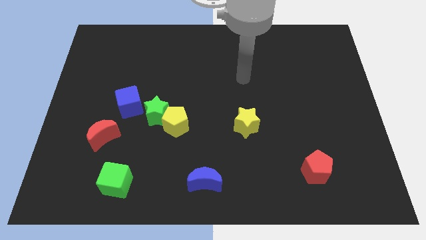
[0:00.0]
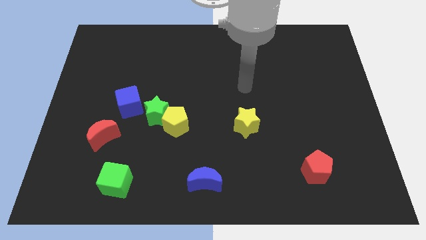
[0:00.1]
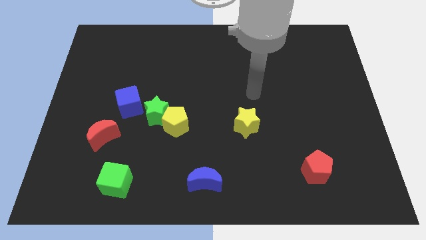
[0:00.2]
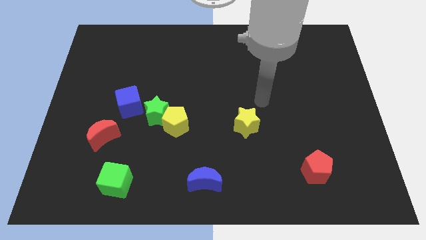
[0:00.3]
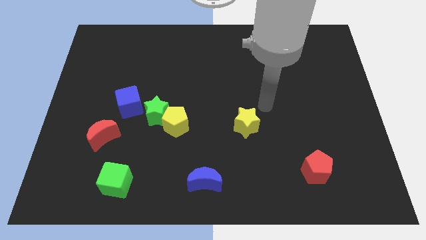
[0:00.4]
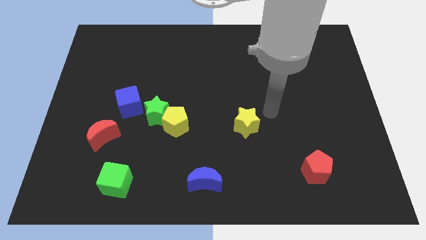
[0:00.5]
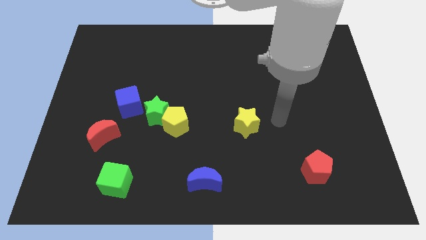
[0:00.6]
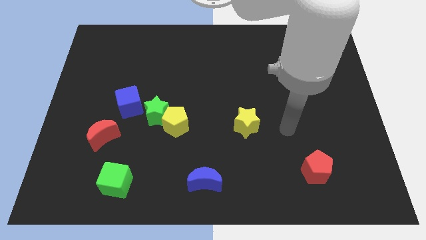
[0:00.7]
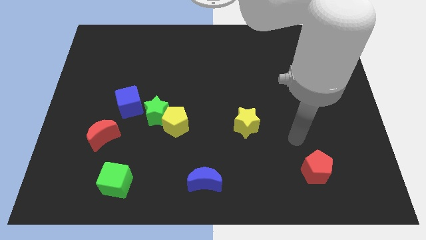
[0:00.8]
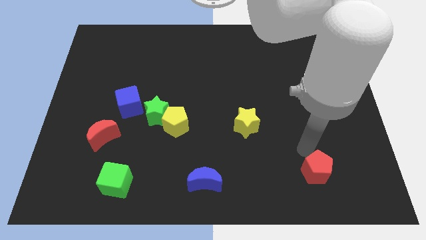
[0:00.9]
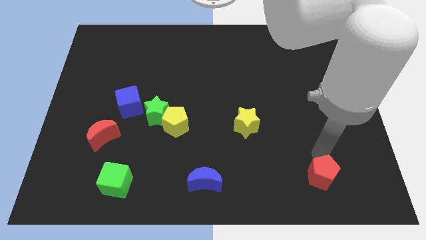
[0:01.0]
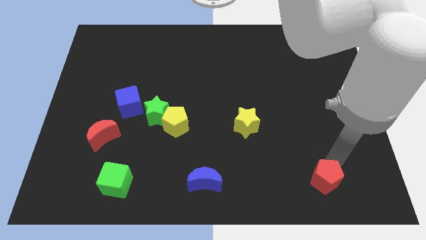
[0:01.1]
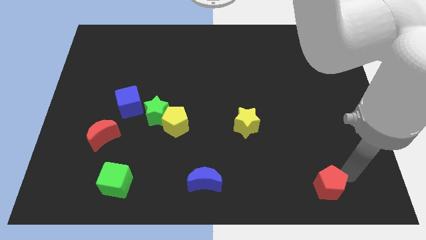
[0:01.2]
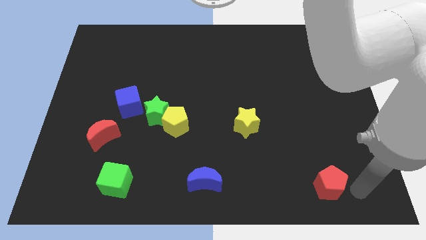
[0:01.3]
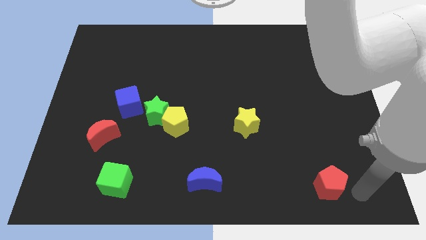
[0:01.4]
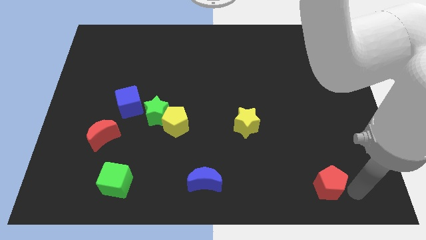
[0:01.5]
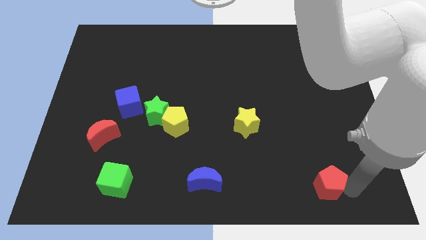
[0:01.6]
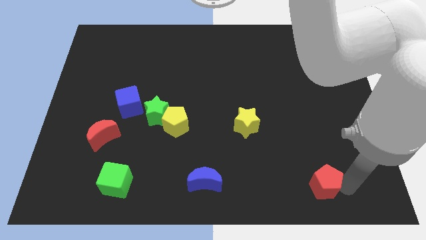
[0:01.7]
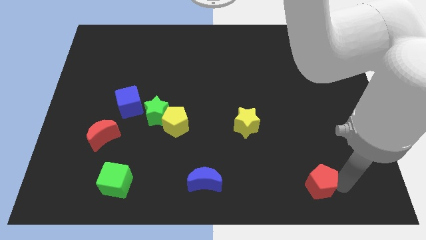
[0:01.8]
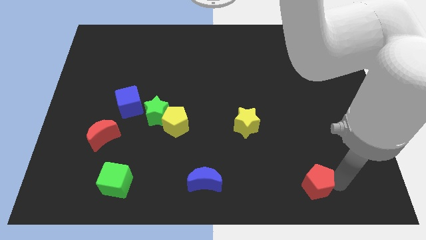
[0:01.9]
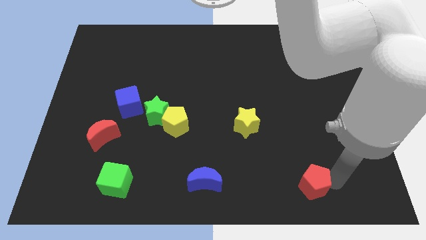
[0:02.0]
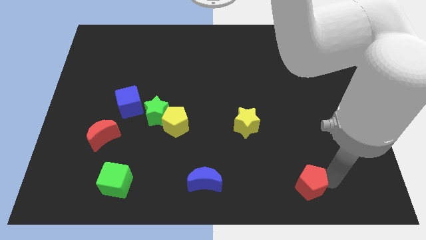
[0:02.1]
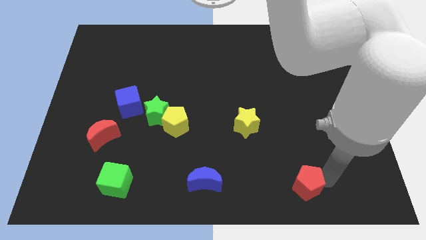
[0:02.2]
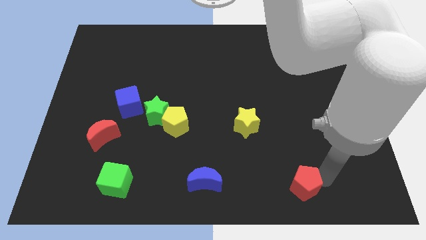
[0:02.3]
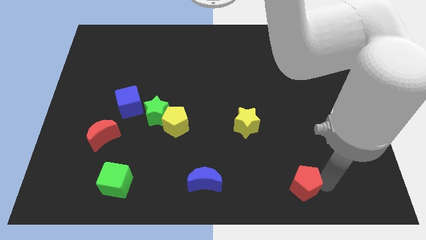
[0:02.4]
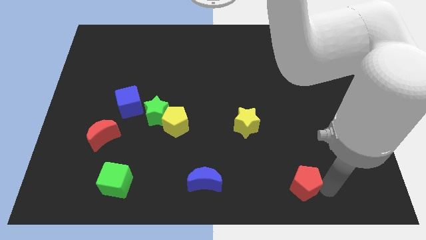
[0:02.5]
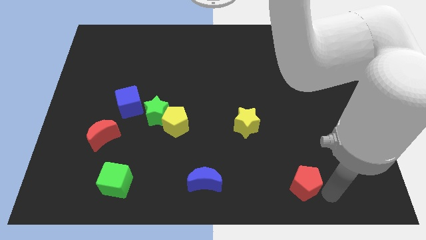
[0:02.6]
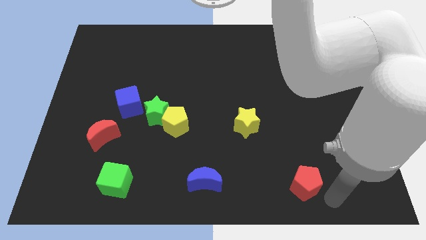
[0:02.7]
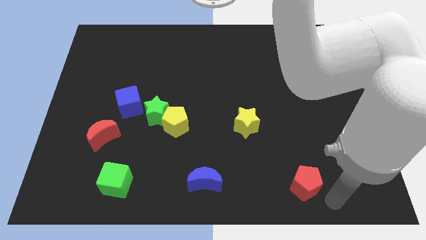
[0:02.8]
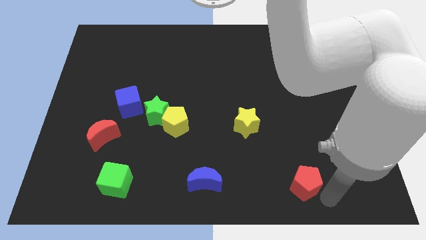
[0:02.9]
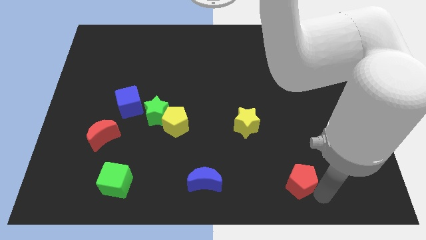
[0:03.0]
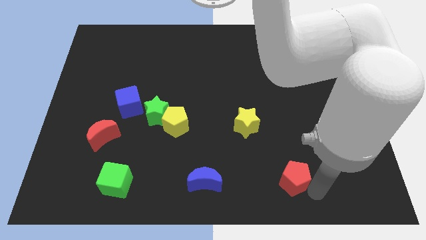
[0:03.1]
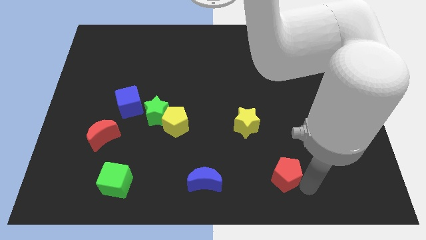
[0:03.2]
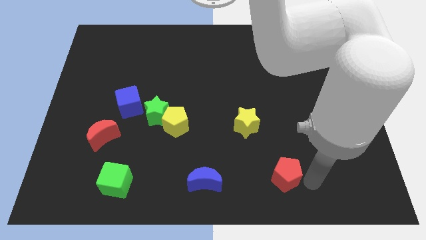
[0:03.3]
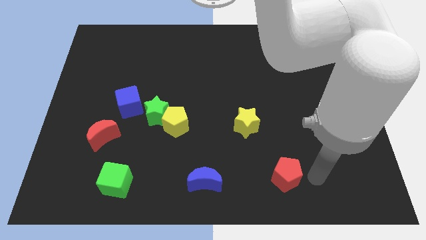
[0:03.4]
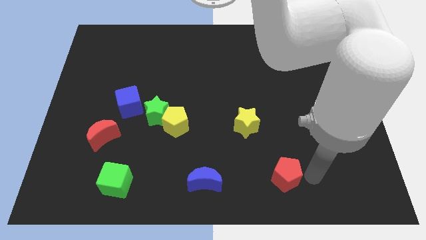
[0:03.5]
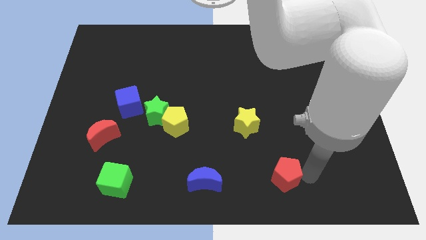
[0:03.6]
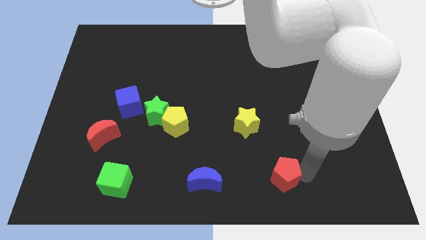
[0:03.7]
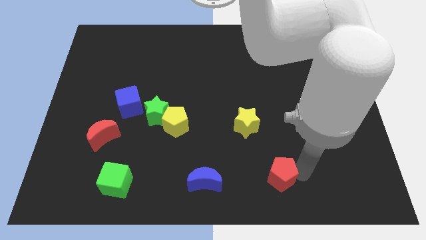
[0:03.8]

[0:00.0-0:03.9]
move the red pentagon to the left a little

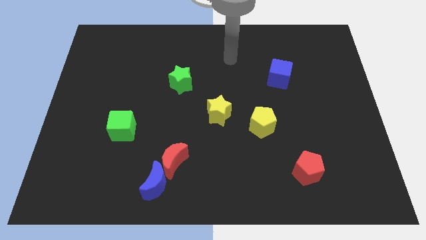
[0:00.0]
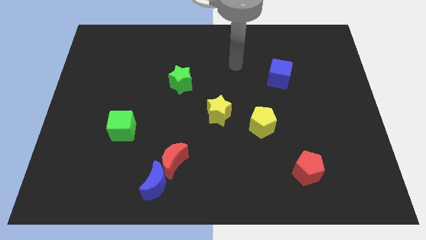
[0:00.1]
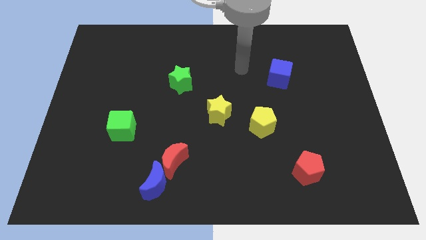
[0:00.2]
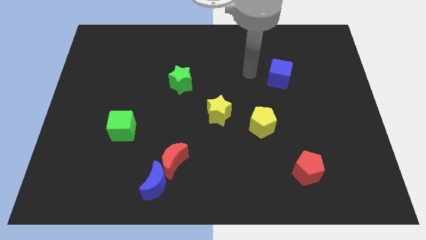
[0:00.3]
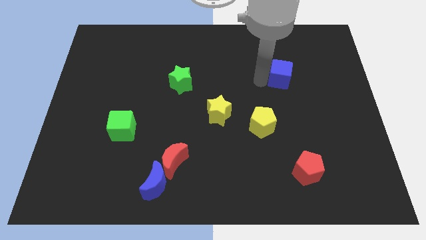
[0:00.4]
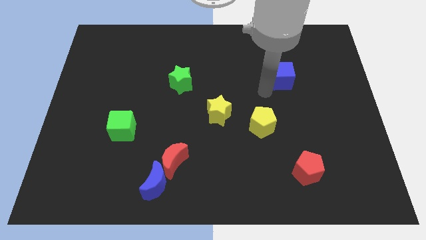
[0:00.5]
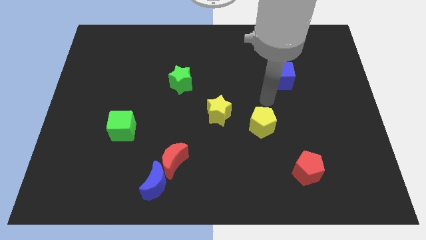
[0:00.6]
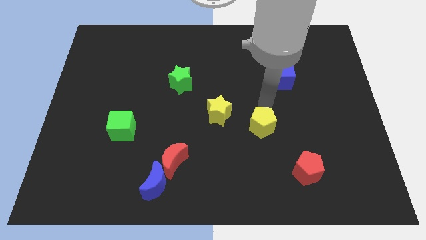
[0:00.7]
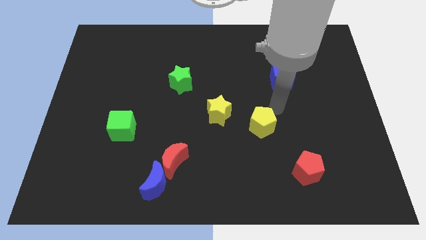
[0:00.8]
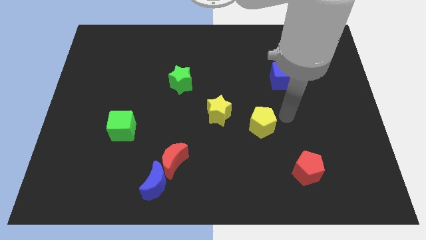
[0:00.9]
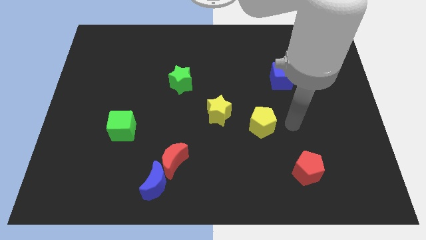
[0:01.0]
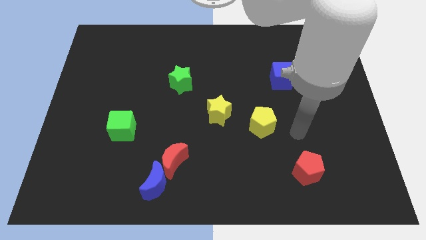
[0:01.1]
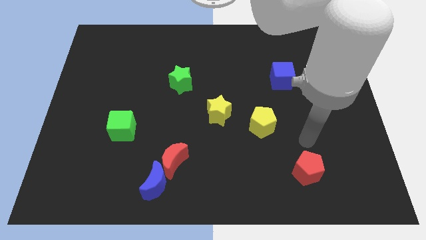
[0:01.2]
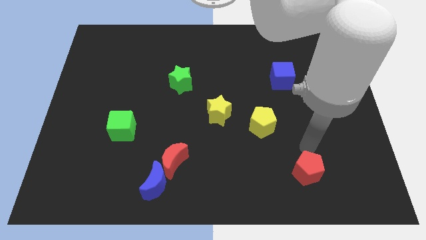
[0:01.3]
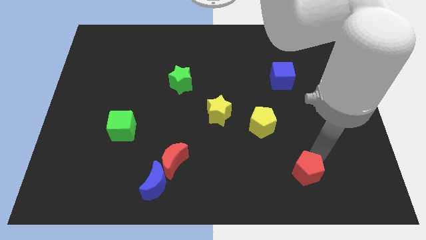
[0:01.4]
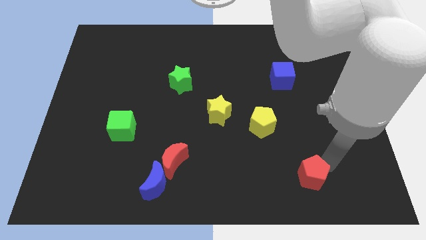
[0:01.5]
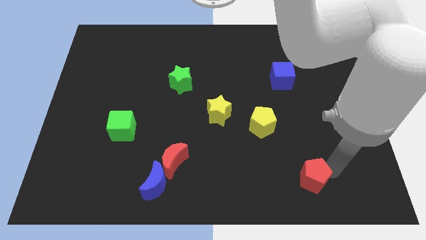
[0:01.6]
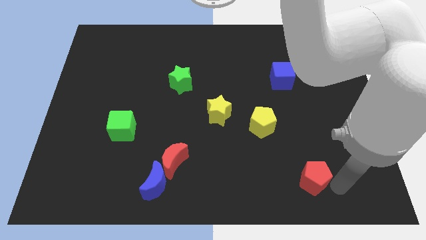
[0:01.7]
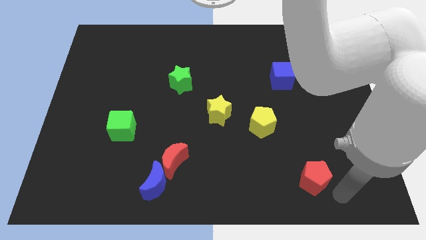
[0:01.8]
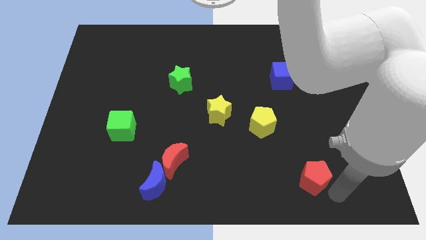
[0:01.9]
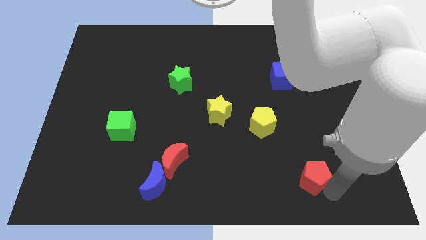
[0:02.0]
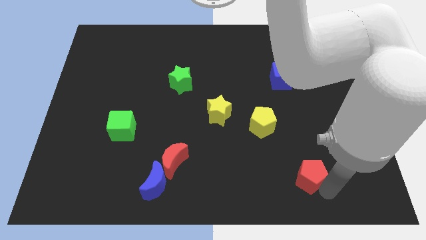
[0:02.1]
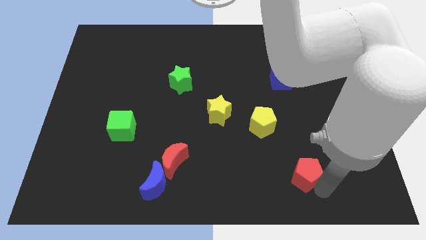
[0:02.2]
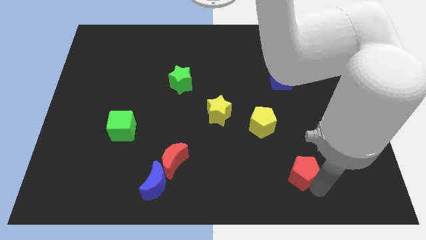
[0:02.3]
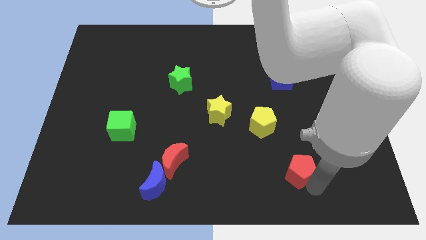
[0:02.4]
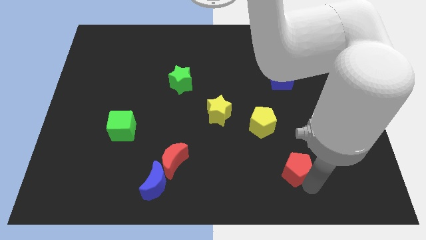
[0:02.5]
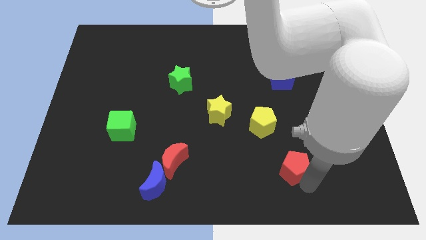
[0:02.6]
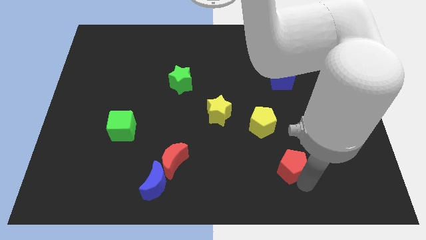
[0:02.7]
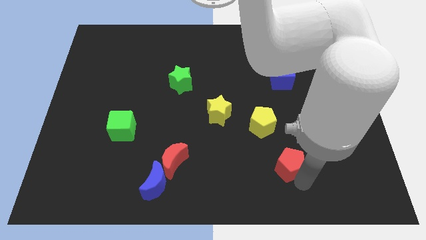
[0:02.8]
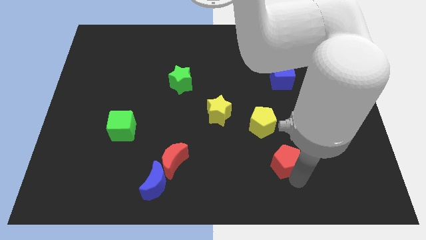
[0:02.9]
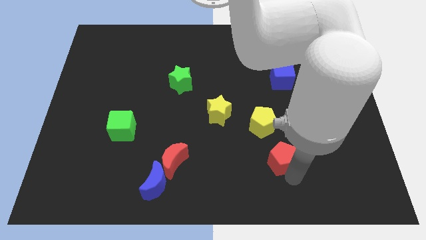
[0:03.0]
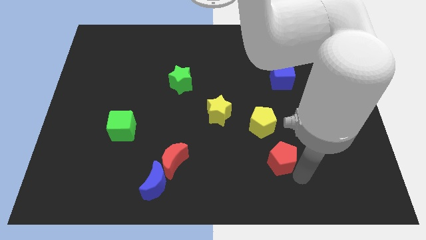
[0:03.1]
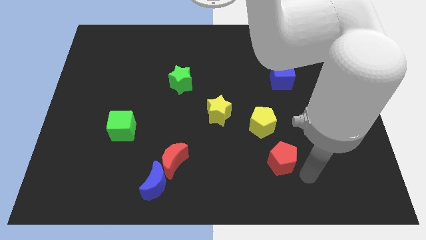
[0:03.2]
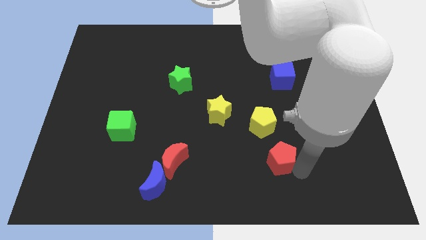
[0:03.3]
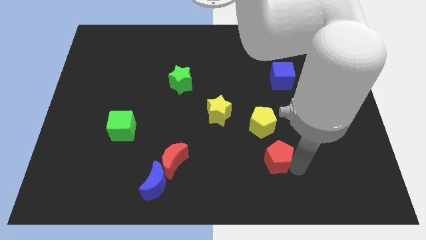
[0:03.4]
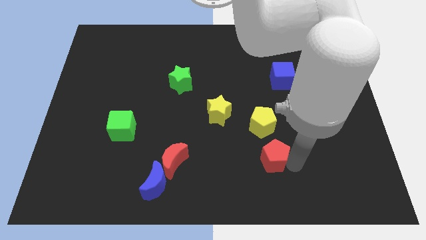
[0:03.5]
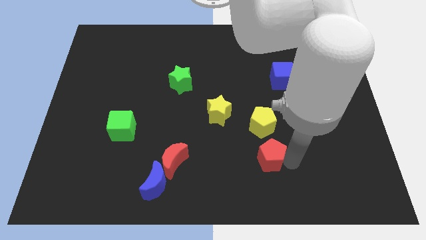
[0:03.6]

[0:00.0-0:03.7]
slide the red pentagon upwards and then left a little

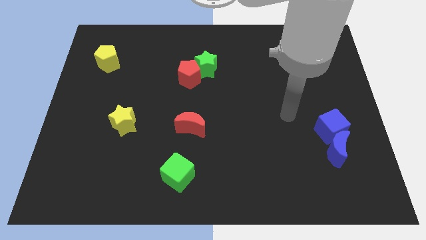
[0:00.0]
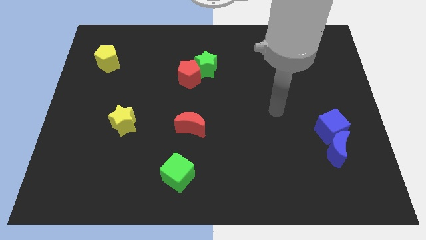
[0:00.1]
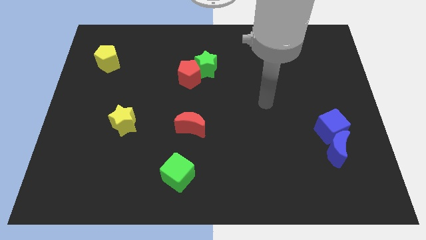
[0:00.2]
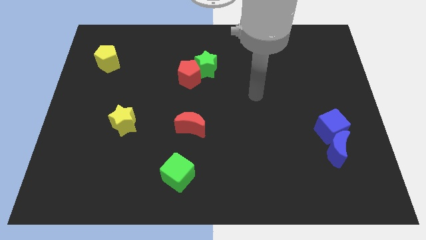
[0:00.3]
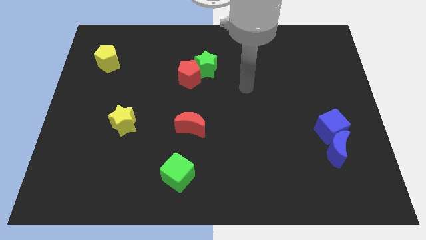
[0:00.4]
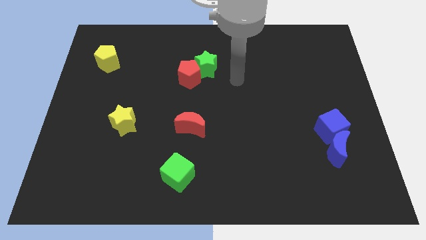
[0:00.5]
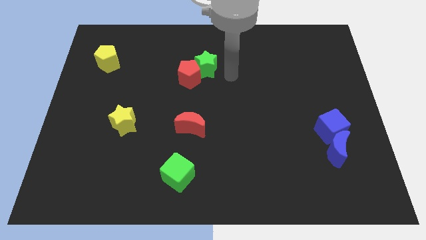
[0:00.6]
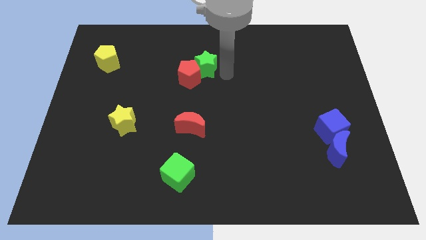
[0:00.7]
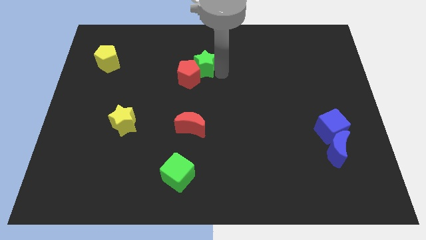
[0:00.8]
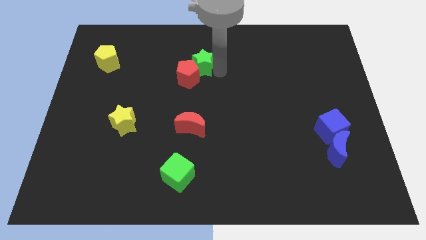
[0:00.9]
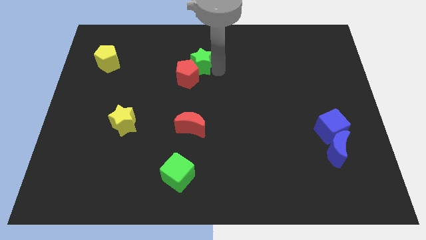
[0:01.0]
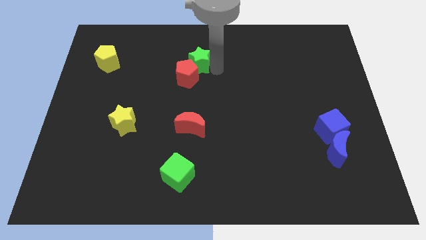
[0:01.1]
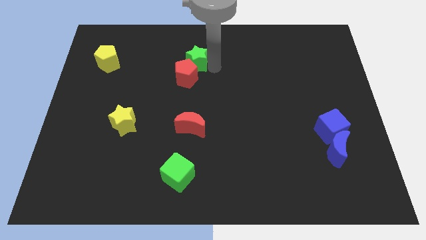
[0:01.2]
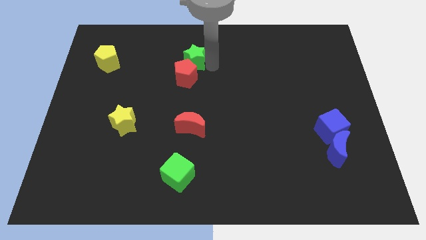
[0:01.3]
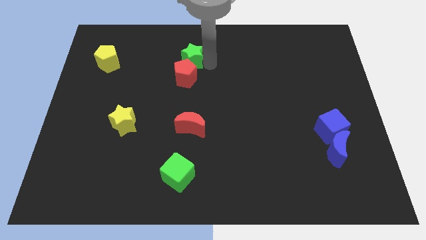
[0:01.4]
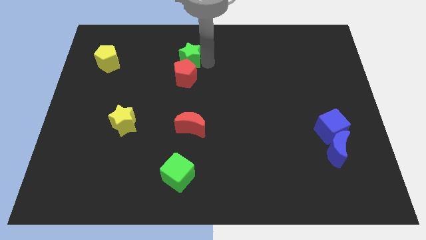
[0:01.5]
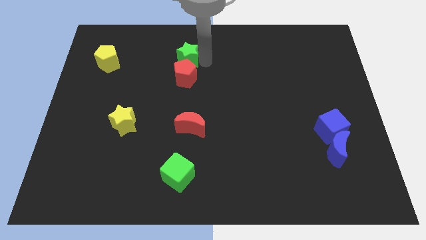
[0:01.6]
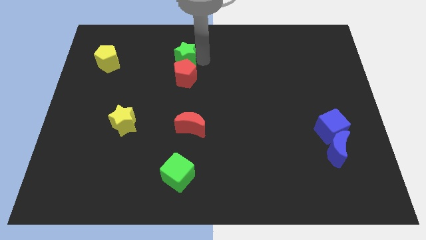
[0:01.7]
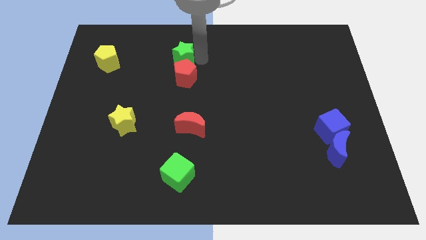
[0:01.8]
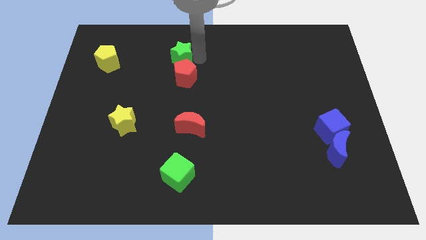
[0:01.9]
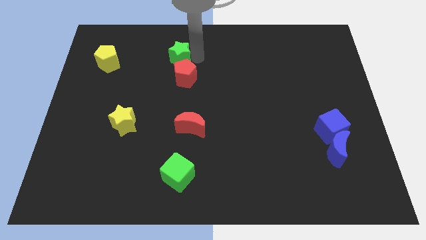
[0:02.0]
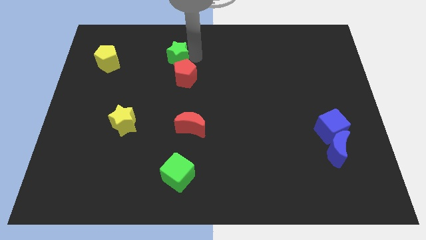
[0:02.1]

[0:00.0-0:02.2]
push the green star somewhat to the left
